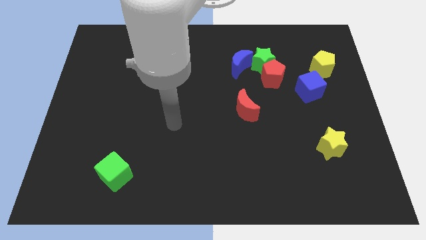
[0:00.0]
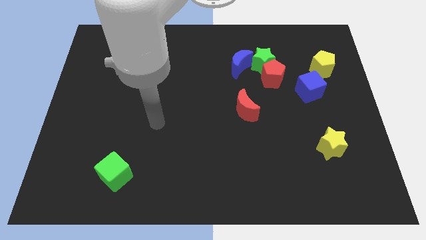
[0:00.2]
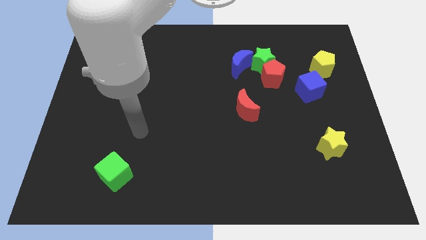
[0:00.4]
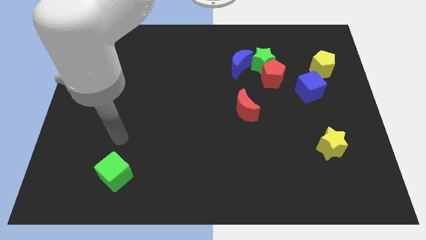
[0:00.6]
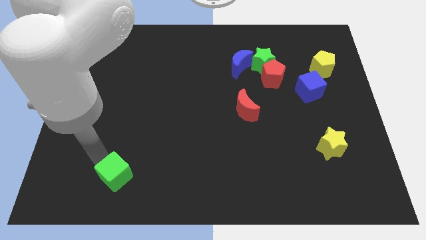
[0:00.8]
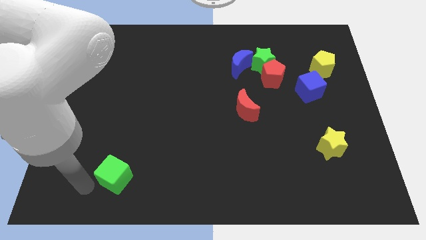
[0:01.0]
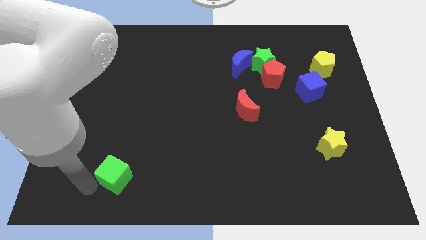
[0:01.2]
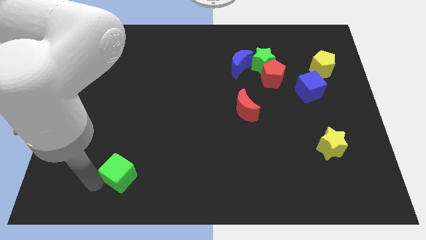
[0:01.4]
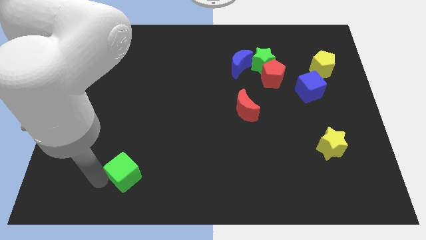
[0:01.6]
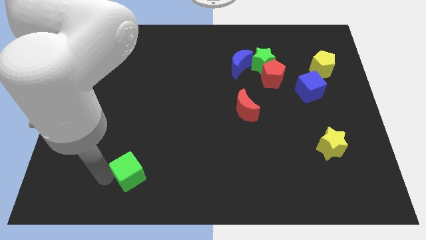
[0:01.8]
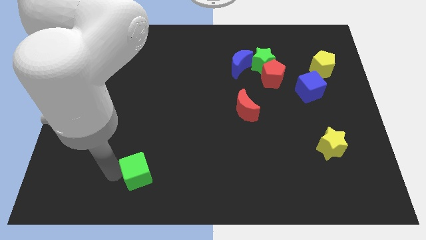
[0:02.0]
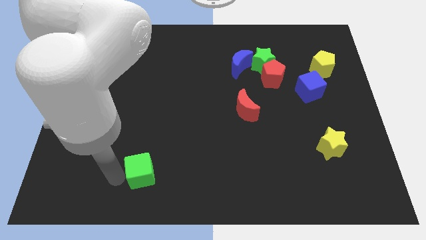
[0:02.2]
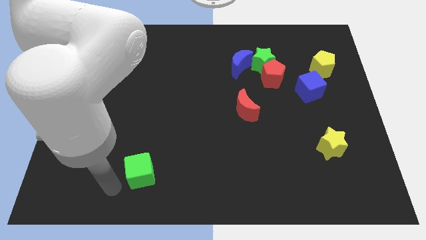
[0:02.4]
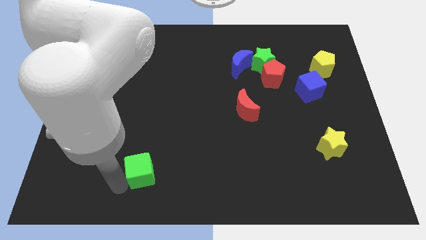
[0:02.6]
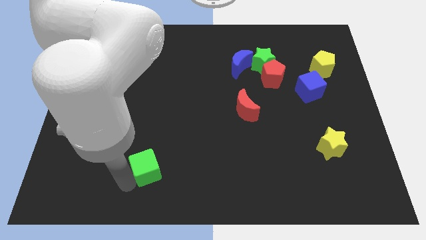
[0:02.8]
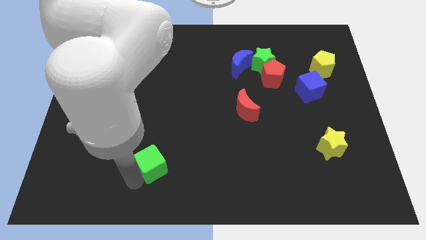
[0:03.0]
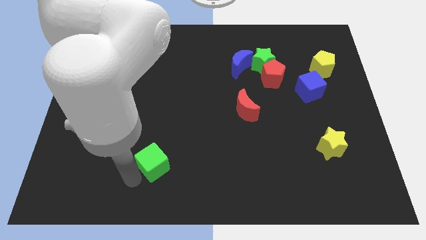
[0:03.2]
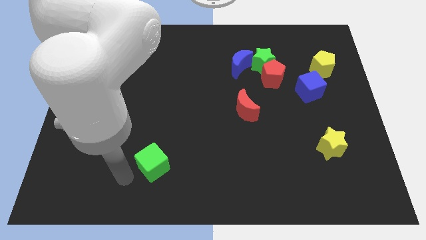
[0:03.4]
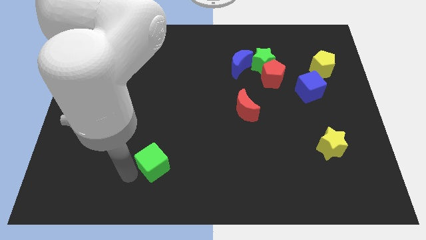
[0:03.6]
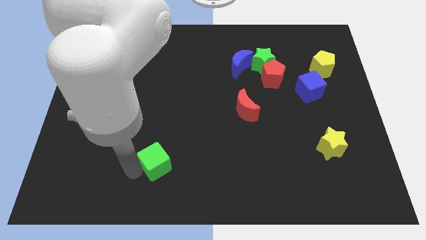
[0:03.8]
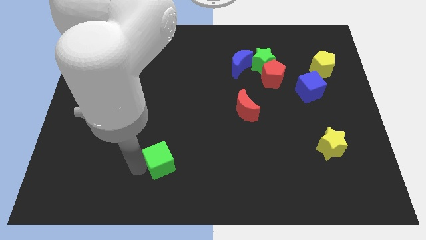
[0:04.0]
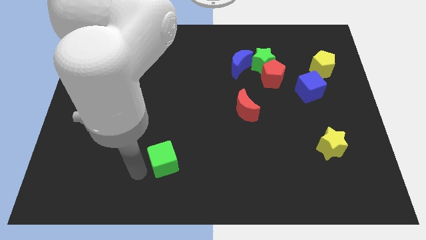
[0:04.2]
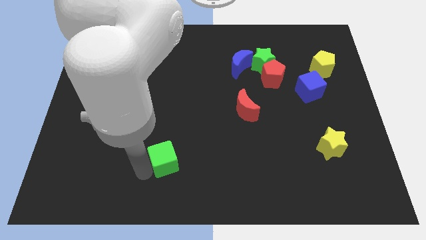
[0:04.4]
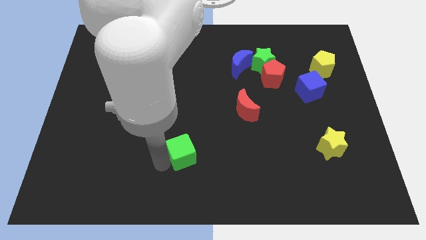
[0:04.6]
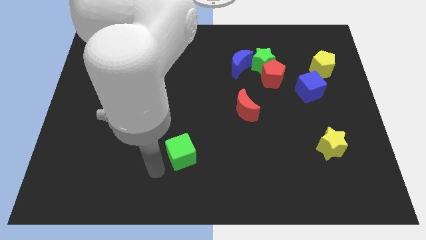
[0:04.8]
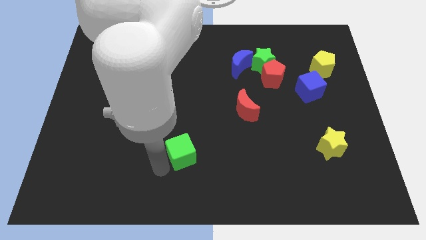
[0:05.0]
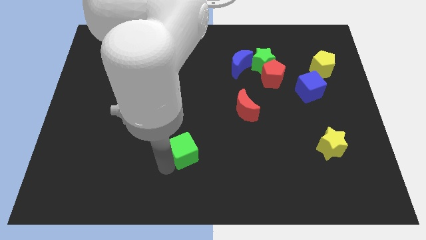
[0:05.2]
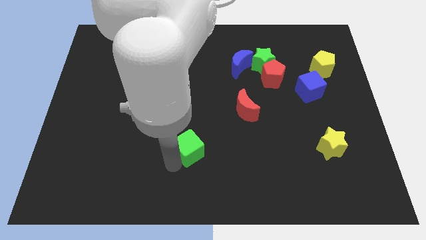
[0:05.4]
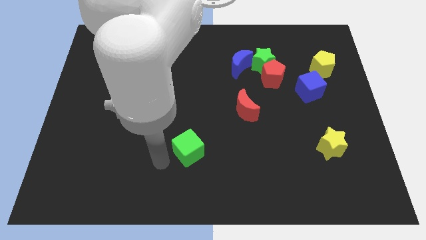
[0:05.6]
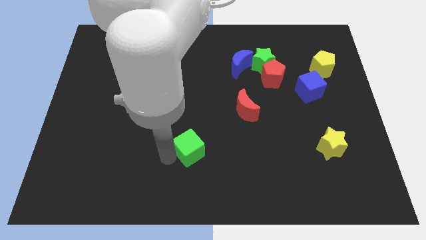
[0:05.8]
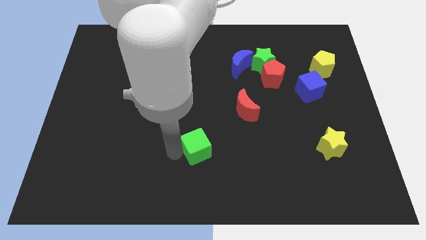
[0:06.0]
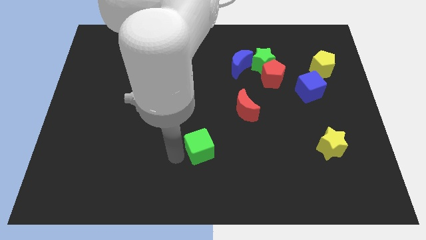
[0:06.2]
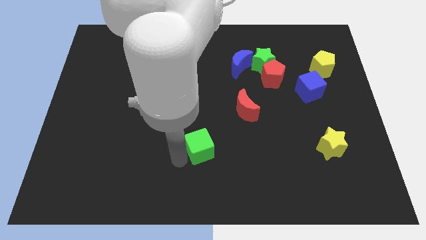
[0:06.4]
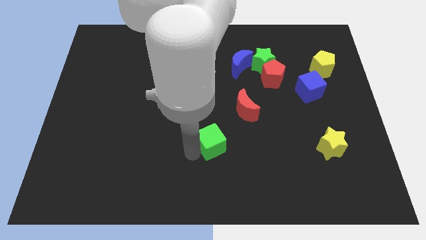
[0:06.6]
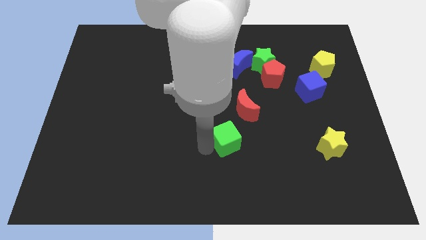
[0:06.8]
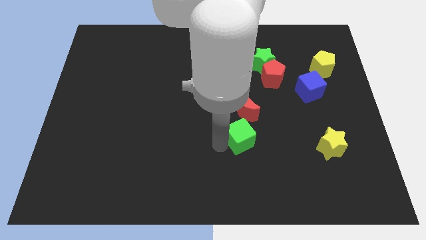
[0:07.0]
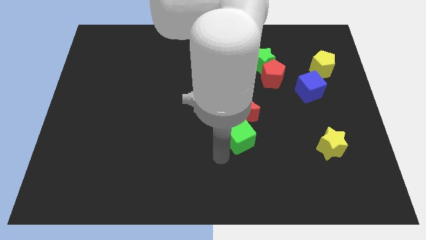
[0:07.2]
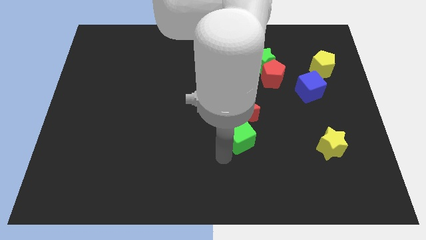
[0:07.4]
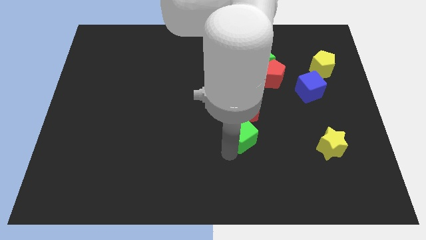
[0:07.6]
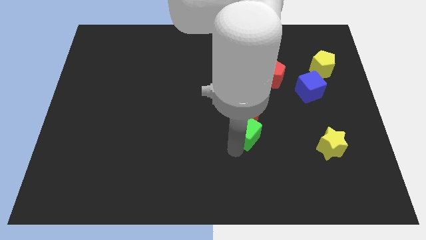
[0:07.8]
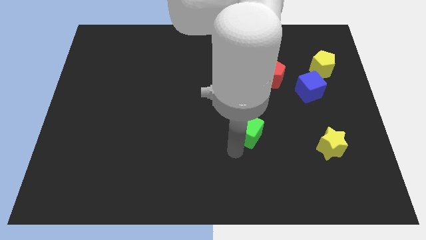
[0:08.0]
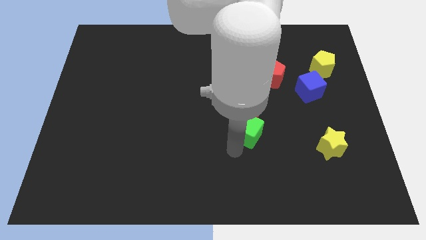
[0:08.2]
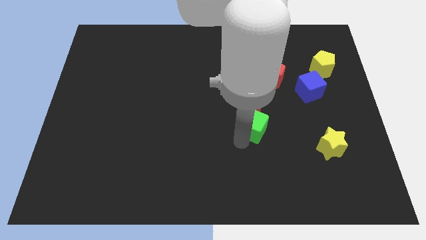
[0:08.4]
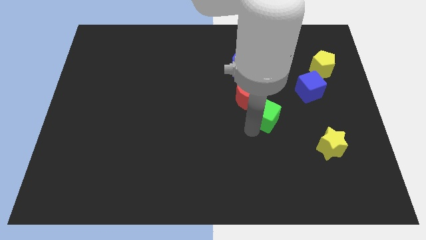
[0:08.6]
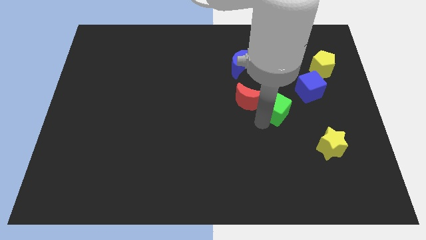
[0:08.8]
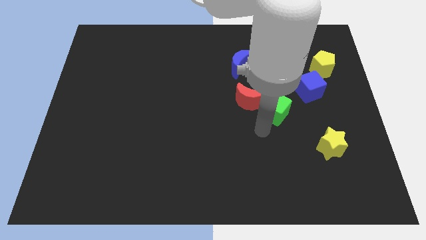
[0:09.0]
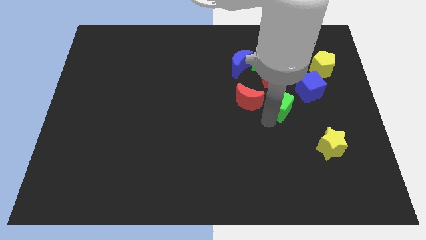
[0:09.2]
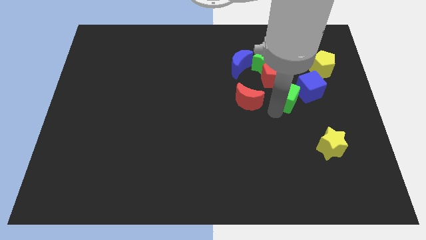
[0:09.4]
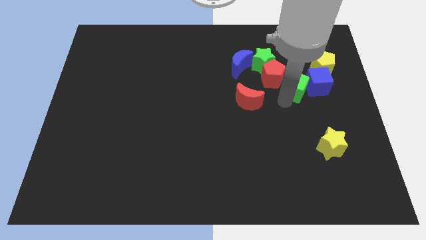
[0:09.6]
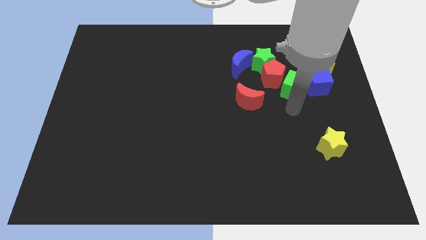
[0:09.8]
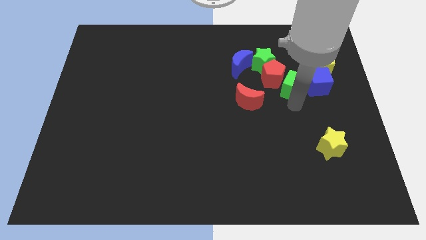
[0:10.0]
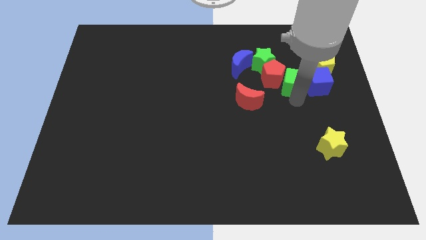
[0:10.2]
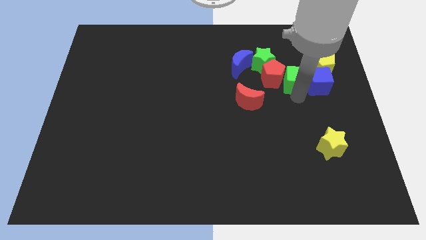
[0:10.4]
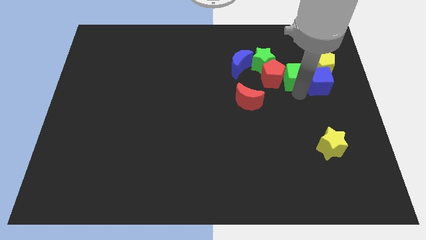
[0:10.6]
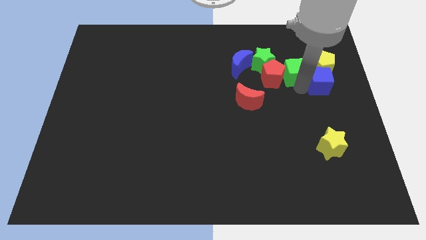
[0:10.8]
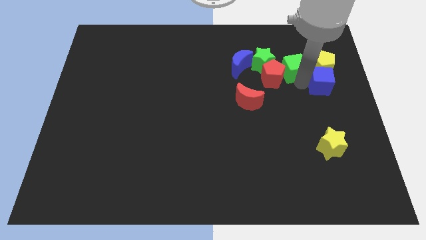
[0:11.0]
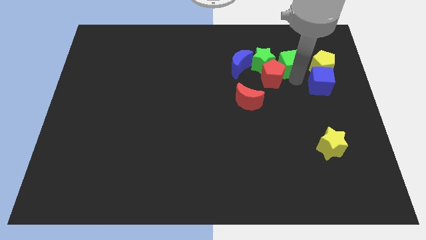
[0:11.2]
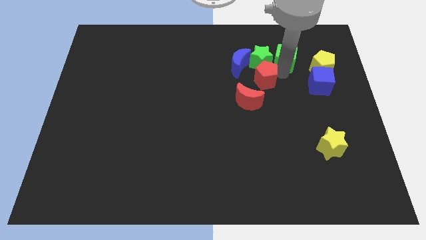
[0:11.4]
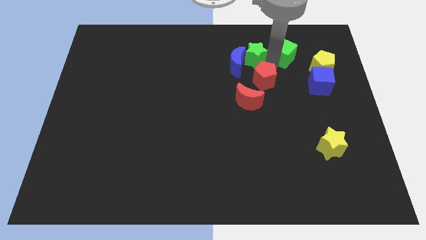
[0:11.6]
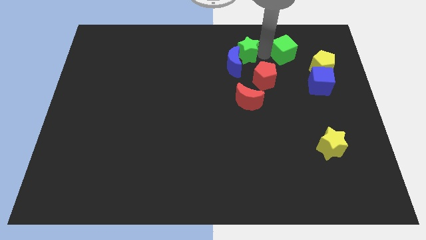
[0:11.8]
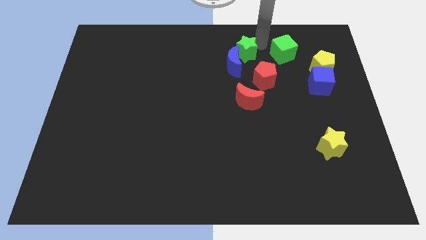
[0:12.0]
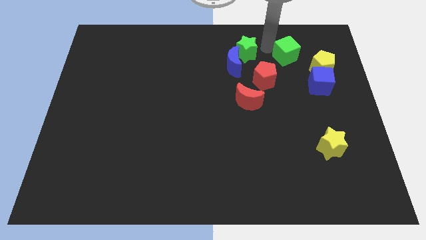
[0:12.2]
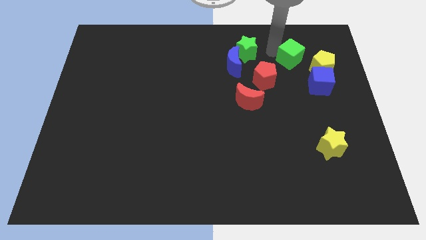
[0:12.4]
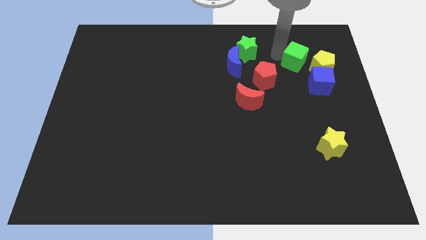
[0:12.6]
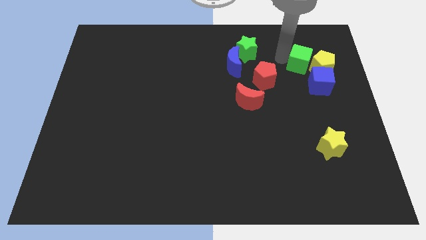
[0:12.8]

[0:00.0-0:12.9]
put the green cube close to the yellow pentagon
